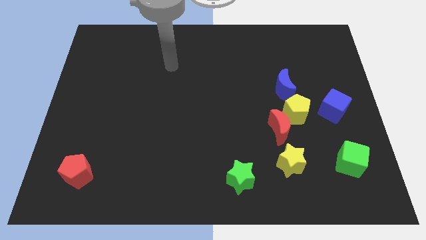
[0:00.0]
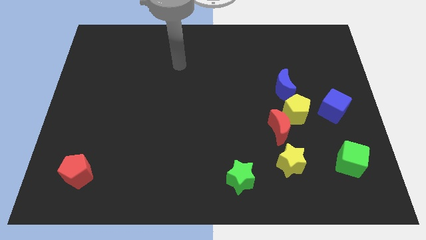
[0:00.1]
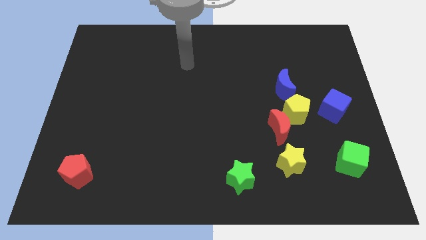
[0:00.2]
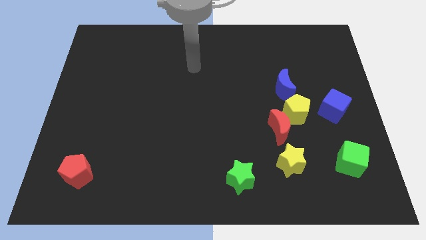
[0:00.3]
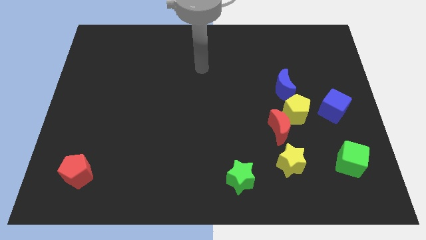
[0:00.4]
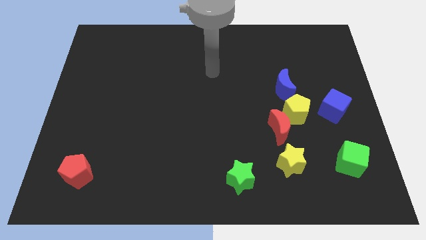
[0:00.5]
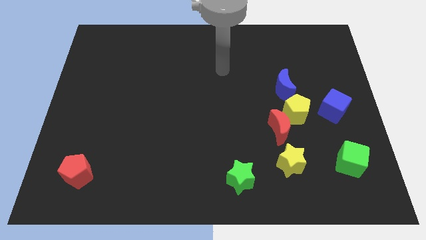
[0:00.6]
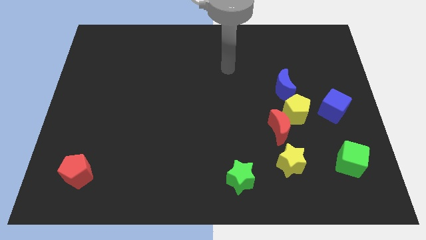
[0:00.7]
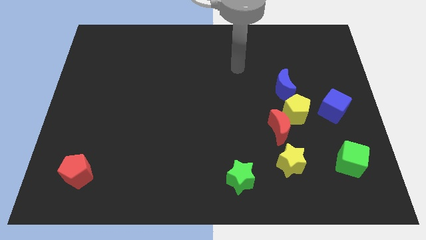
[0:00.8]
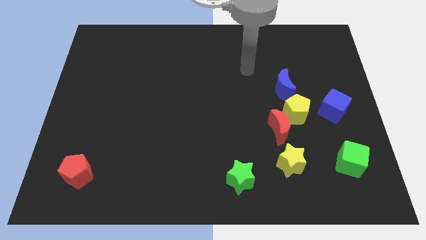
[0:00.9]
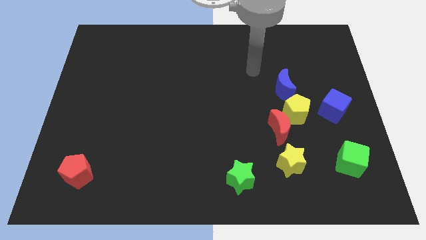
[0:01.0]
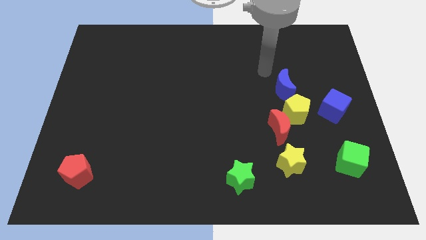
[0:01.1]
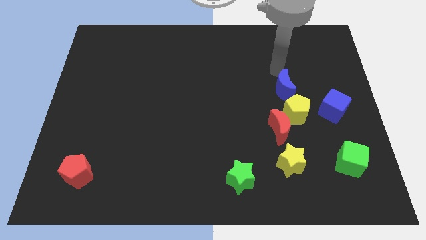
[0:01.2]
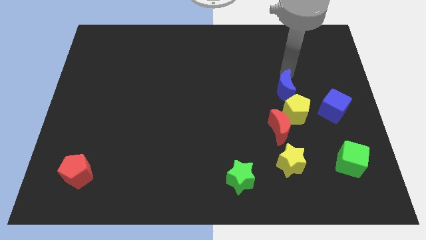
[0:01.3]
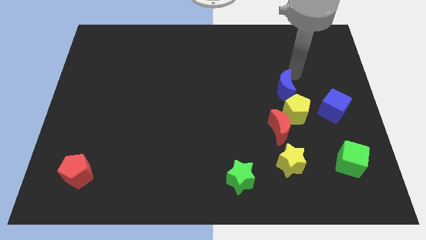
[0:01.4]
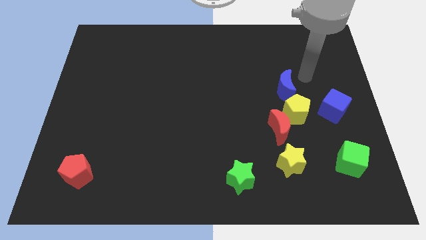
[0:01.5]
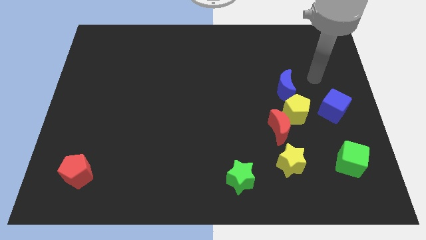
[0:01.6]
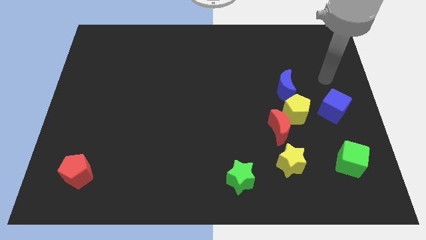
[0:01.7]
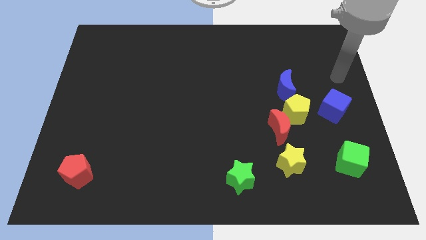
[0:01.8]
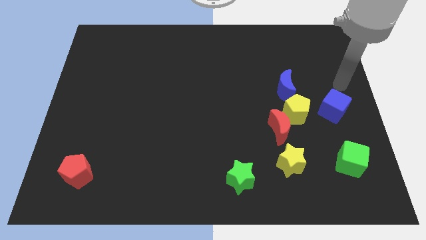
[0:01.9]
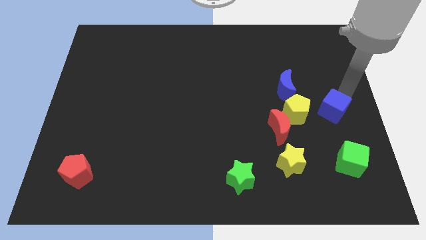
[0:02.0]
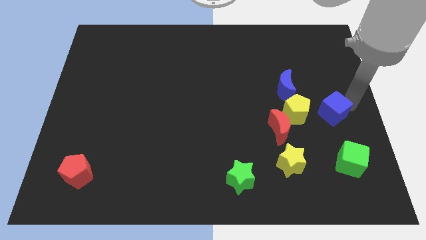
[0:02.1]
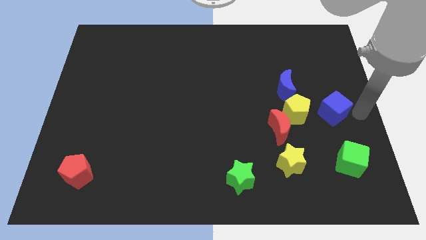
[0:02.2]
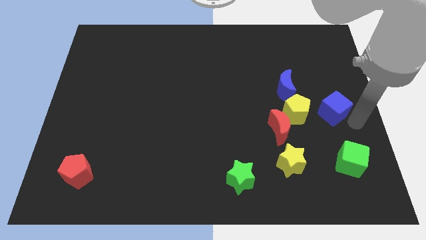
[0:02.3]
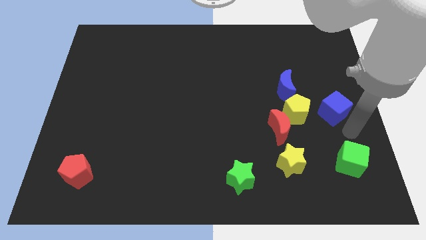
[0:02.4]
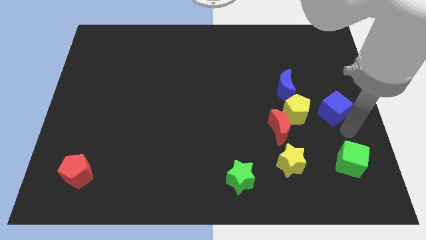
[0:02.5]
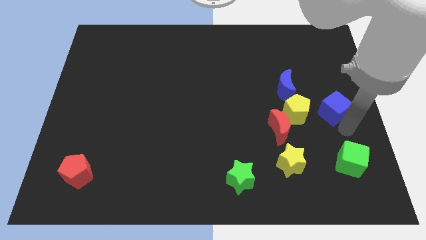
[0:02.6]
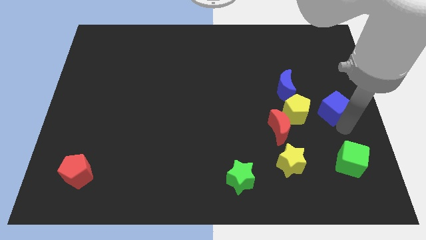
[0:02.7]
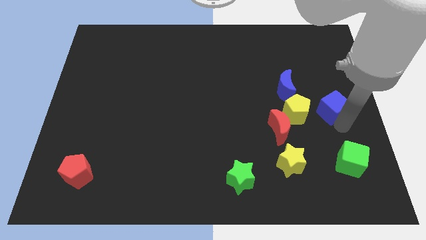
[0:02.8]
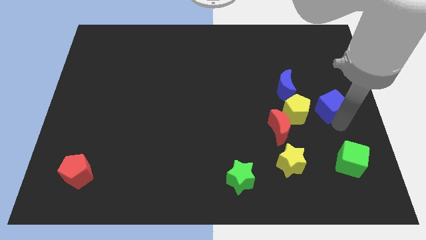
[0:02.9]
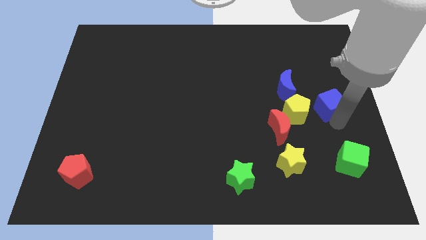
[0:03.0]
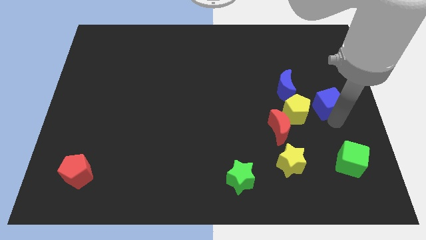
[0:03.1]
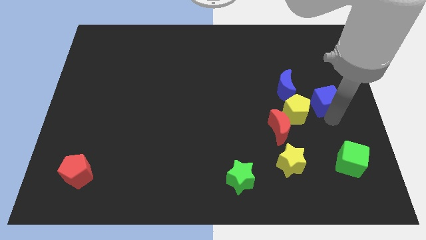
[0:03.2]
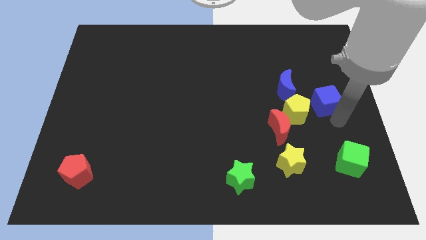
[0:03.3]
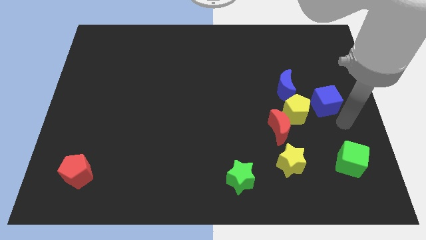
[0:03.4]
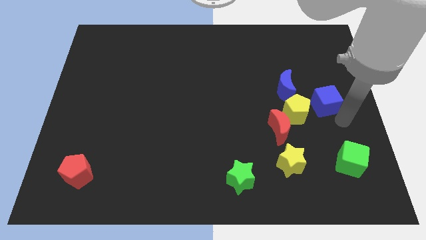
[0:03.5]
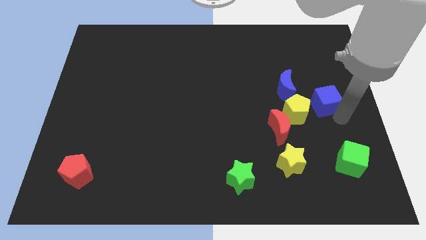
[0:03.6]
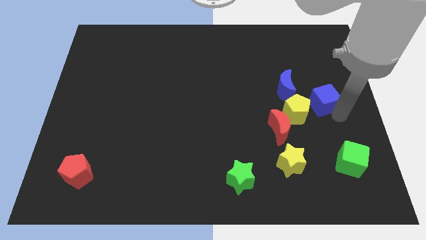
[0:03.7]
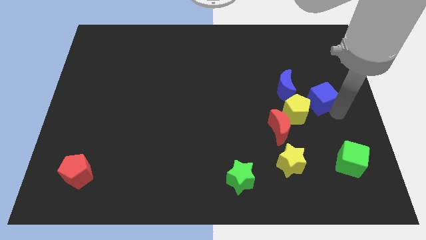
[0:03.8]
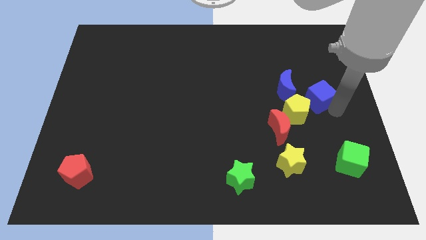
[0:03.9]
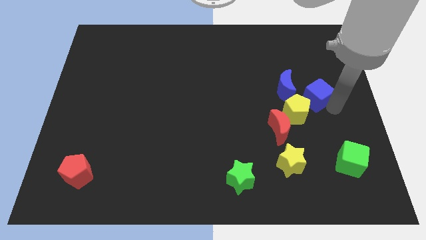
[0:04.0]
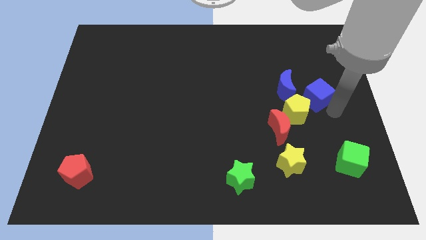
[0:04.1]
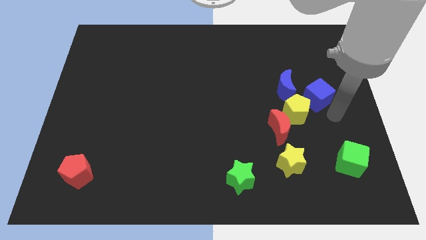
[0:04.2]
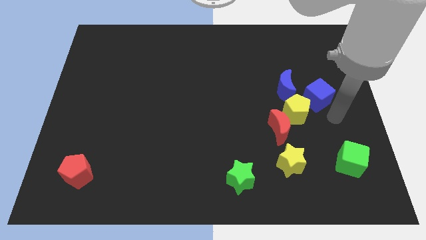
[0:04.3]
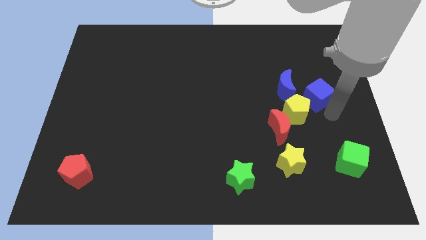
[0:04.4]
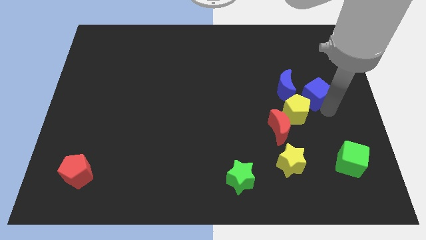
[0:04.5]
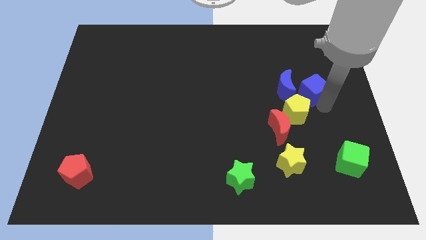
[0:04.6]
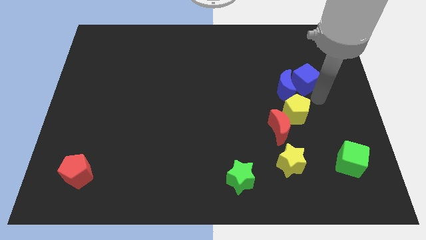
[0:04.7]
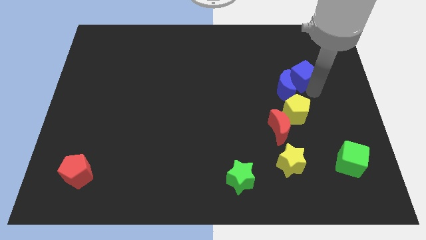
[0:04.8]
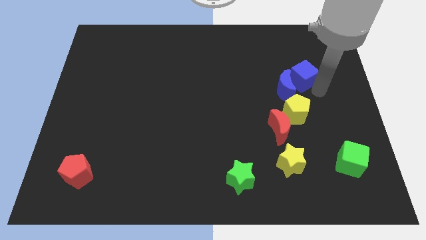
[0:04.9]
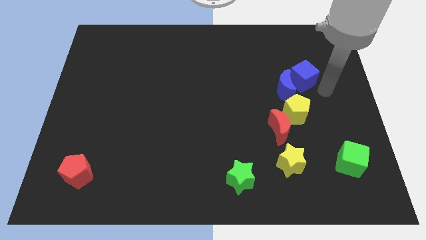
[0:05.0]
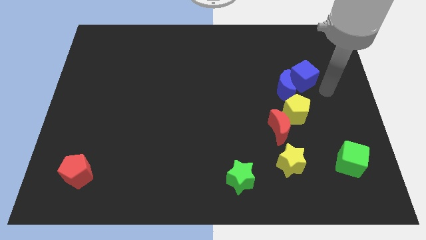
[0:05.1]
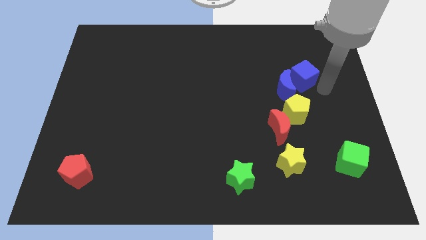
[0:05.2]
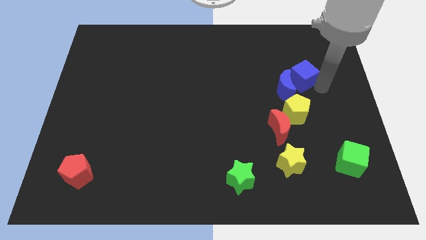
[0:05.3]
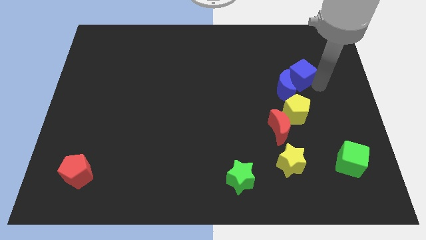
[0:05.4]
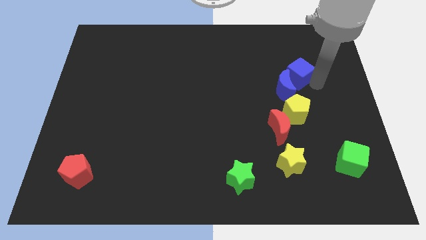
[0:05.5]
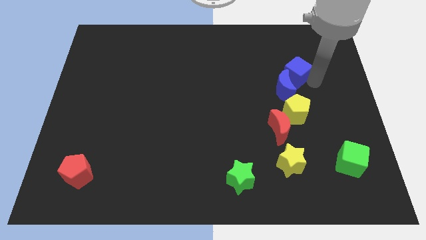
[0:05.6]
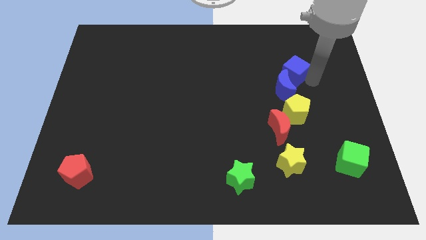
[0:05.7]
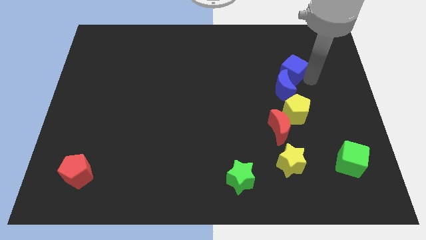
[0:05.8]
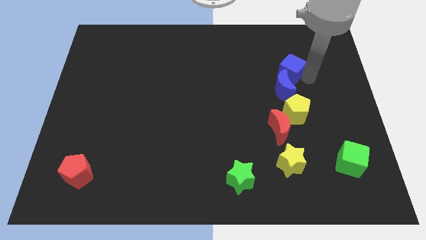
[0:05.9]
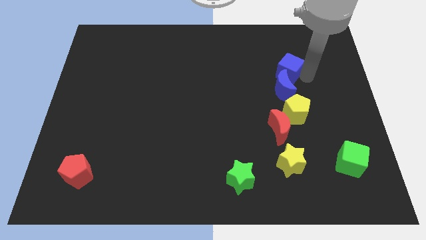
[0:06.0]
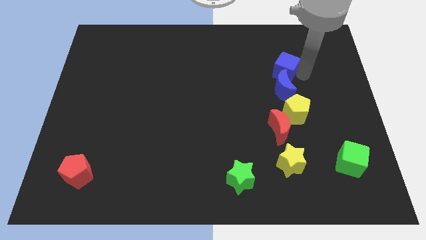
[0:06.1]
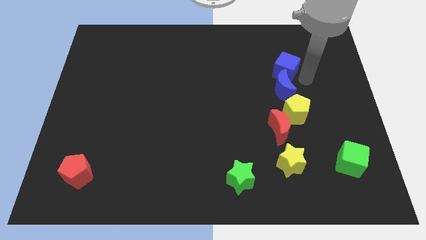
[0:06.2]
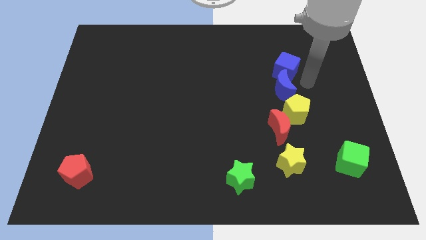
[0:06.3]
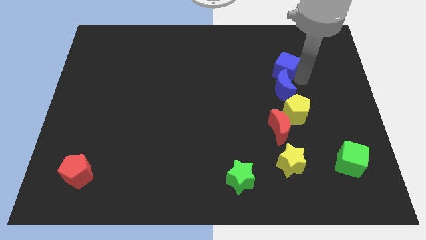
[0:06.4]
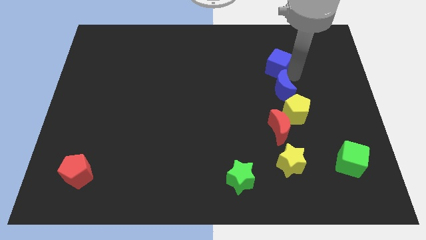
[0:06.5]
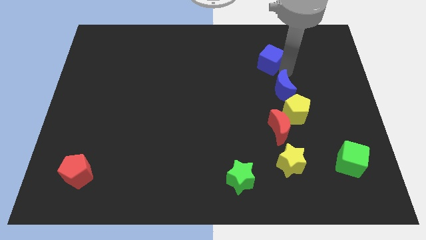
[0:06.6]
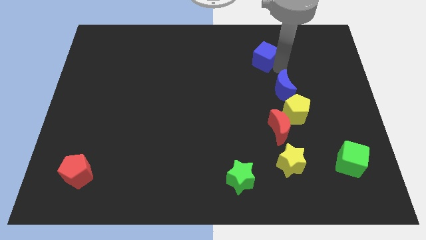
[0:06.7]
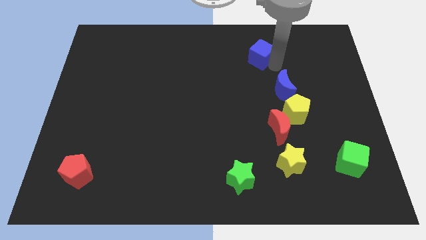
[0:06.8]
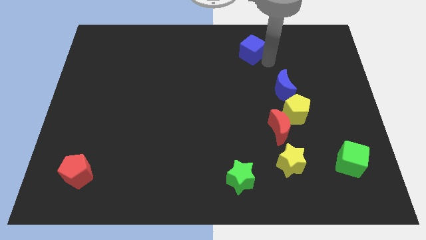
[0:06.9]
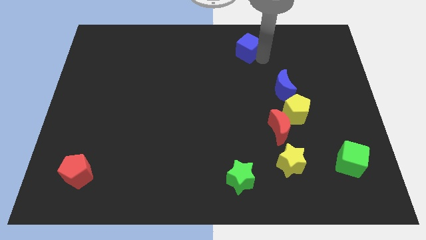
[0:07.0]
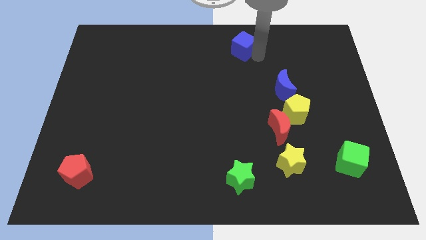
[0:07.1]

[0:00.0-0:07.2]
put the blue cube to the top side
